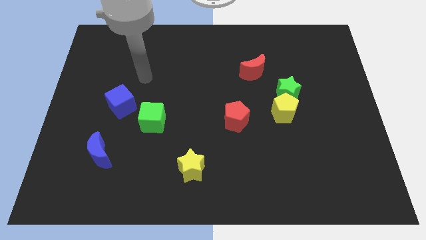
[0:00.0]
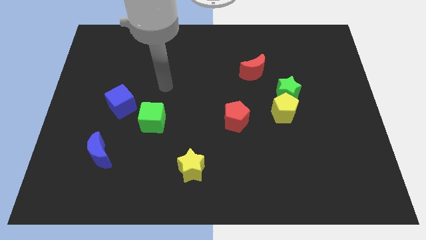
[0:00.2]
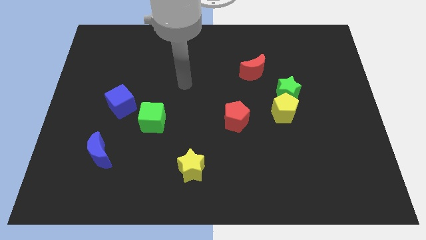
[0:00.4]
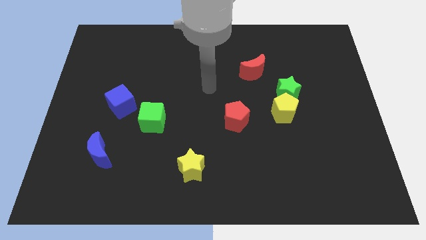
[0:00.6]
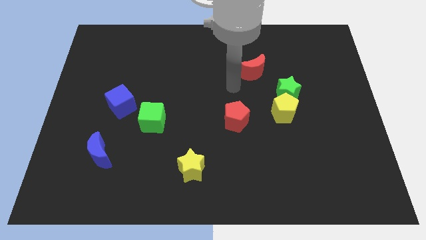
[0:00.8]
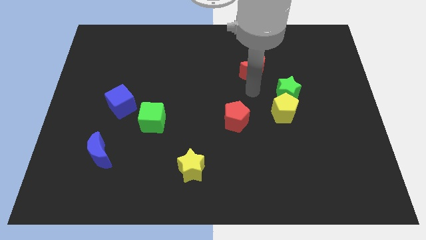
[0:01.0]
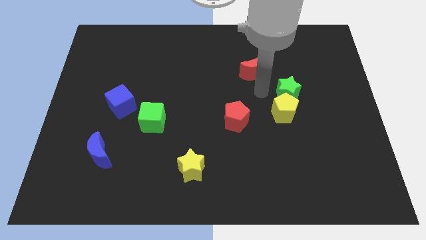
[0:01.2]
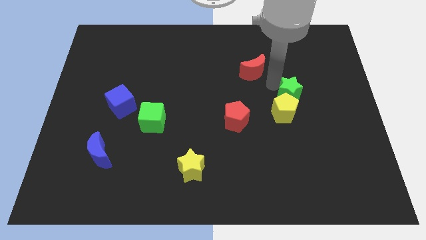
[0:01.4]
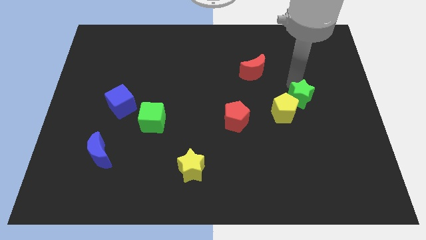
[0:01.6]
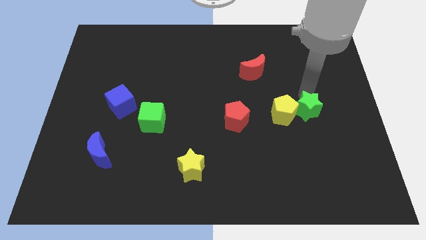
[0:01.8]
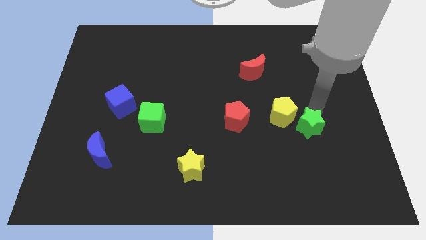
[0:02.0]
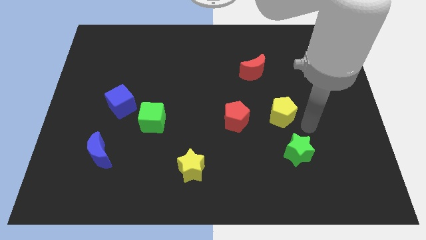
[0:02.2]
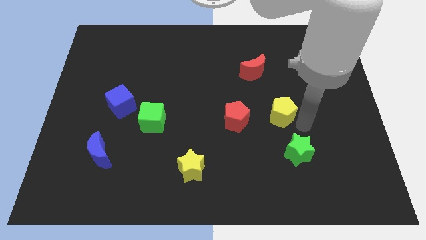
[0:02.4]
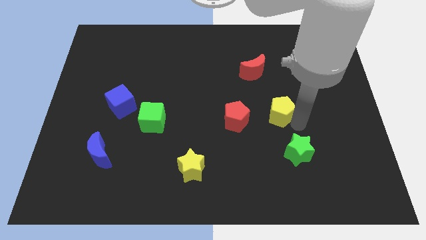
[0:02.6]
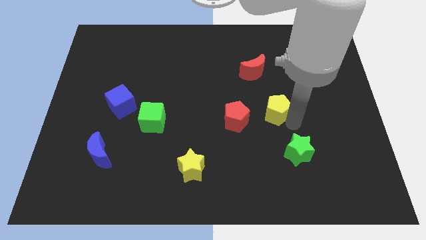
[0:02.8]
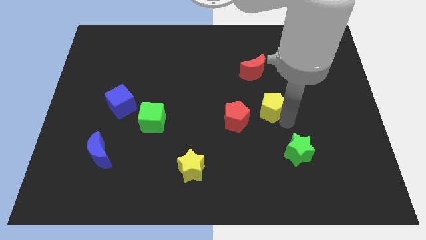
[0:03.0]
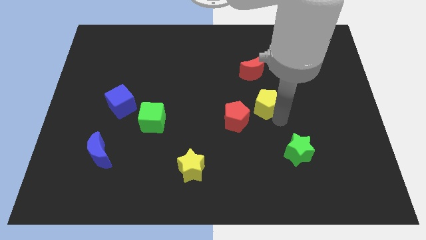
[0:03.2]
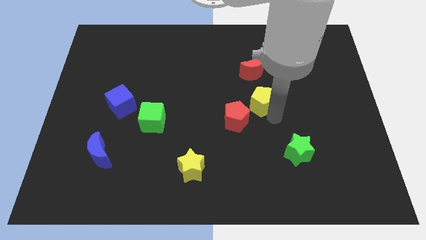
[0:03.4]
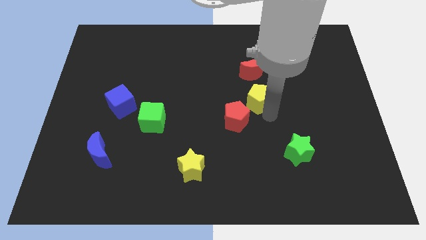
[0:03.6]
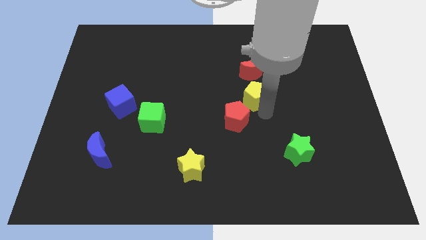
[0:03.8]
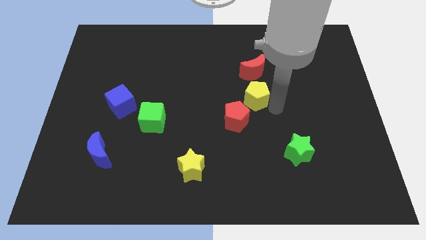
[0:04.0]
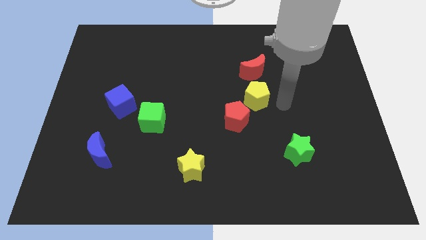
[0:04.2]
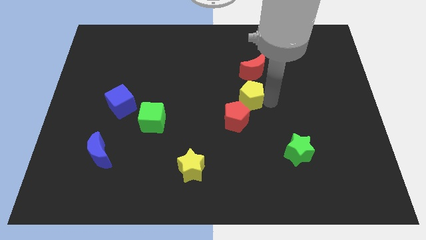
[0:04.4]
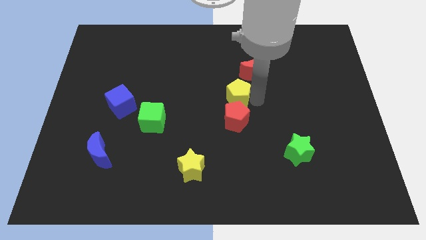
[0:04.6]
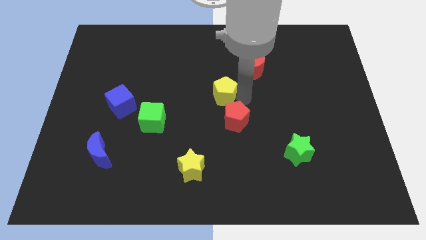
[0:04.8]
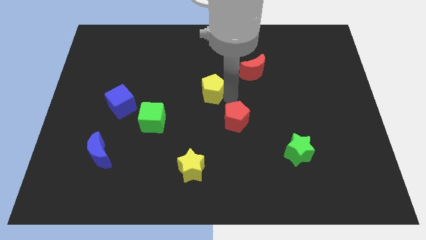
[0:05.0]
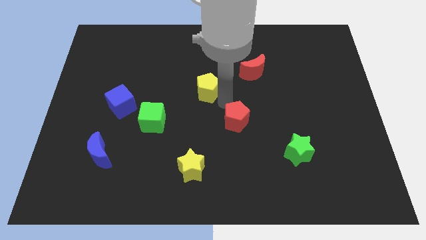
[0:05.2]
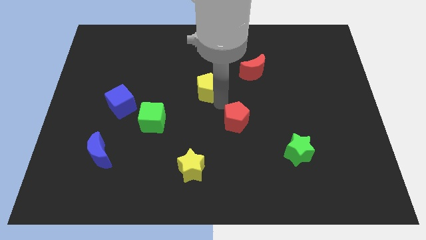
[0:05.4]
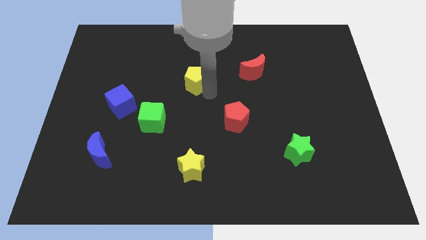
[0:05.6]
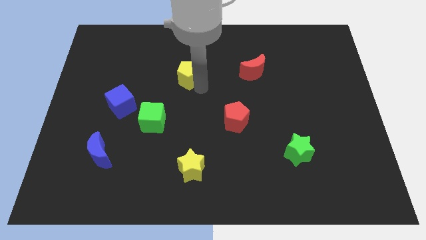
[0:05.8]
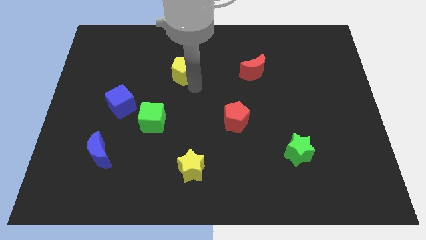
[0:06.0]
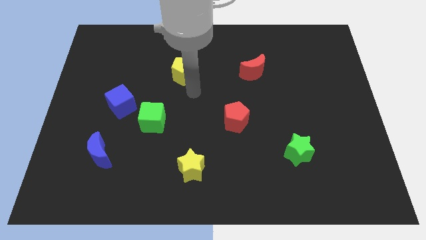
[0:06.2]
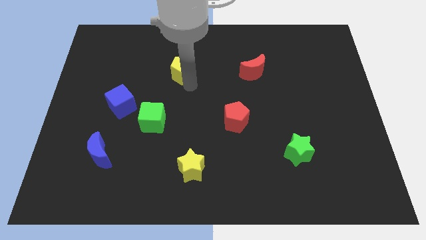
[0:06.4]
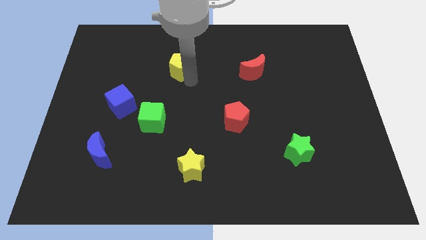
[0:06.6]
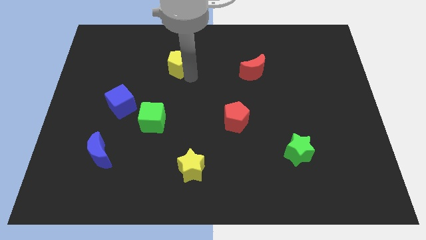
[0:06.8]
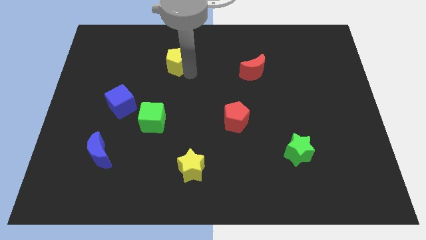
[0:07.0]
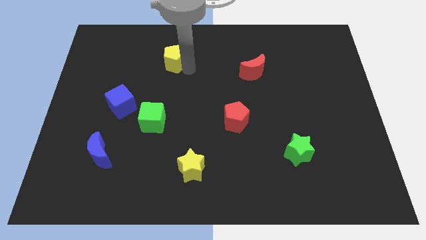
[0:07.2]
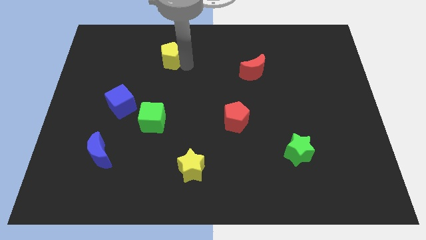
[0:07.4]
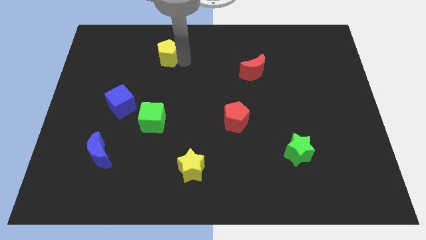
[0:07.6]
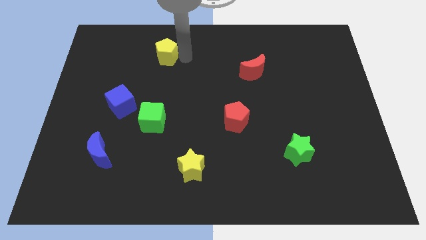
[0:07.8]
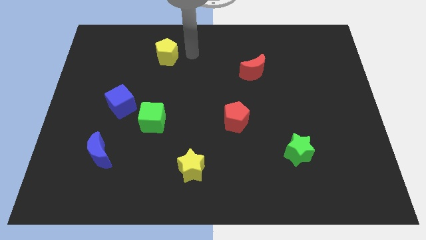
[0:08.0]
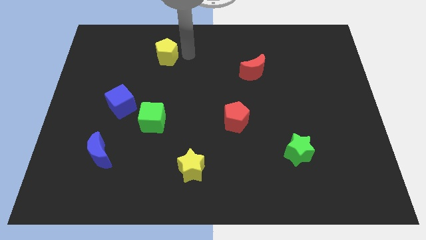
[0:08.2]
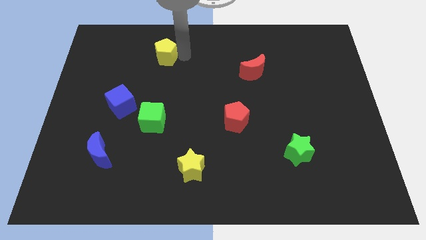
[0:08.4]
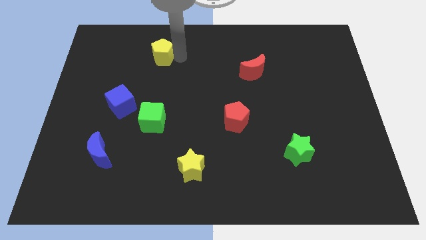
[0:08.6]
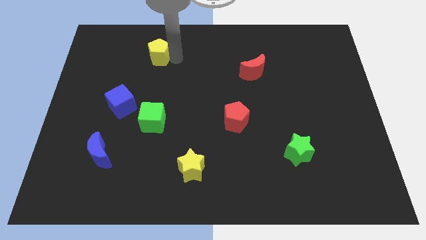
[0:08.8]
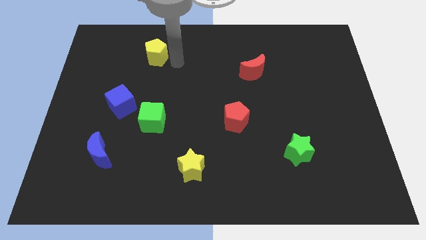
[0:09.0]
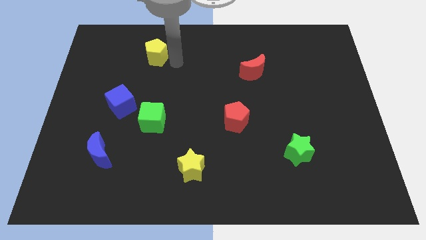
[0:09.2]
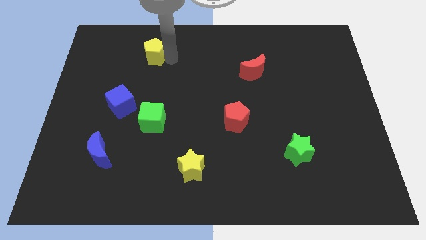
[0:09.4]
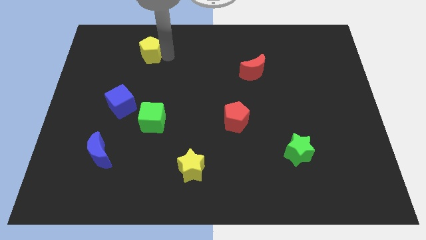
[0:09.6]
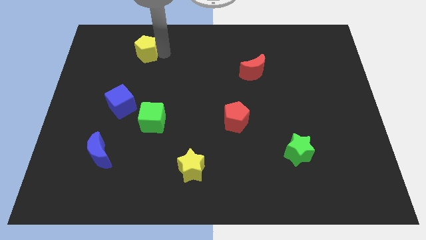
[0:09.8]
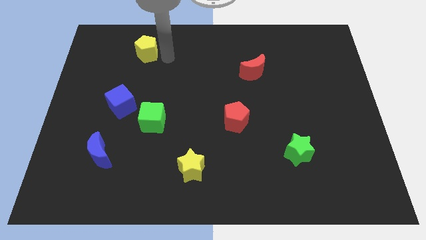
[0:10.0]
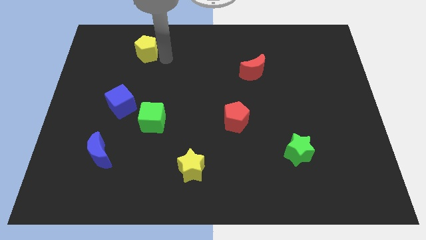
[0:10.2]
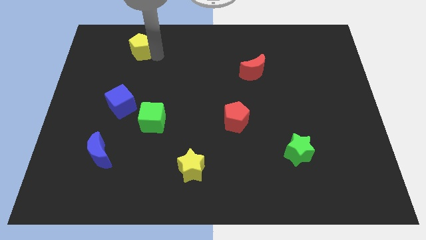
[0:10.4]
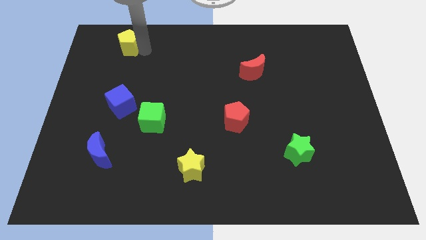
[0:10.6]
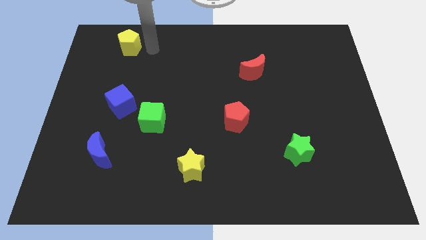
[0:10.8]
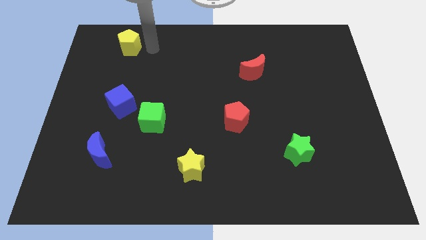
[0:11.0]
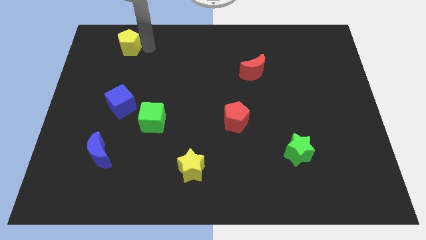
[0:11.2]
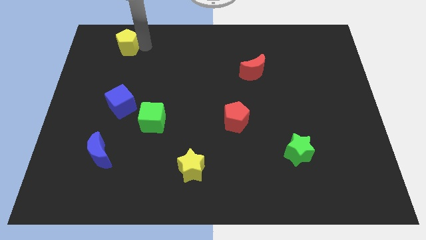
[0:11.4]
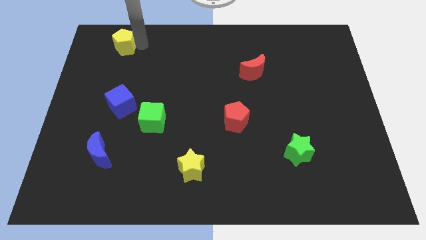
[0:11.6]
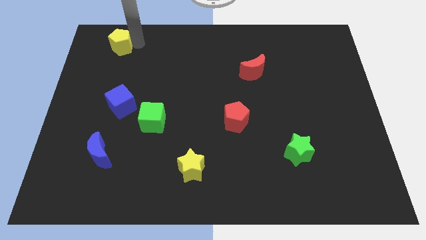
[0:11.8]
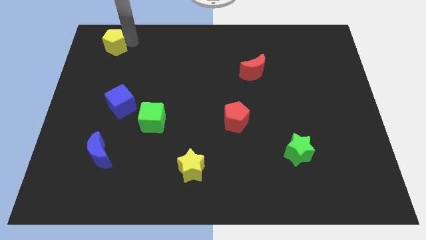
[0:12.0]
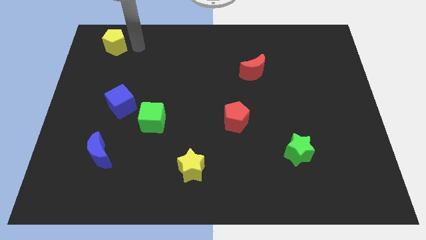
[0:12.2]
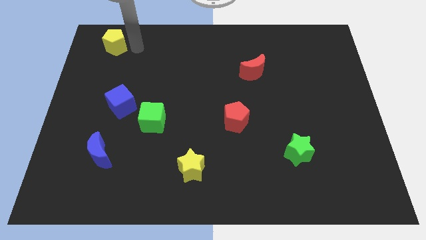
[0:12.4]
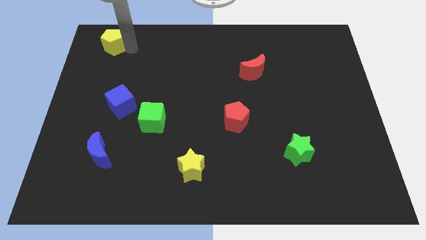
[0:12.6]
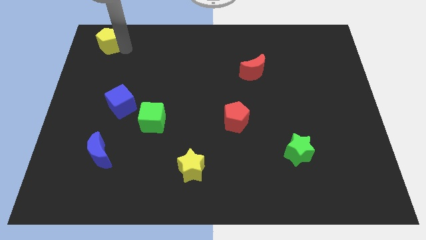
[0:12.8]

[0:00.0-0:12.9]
put the yellow pentagon to the top left corner

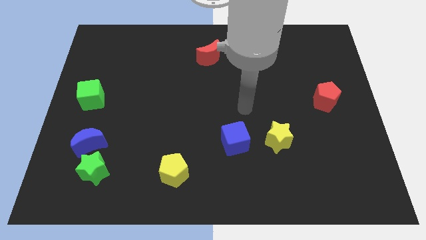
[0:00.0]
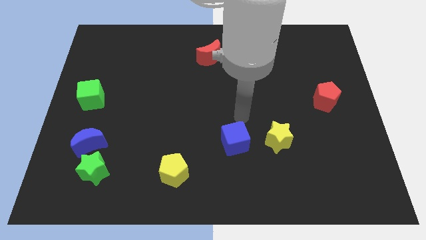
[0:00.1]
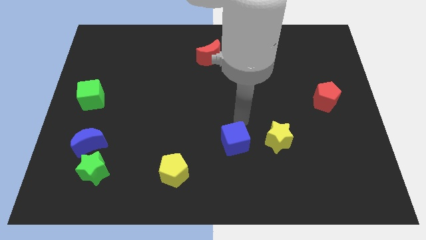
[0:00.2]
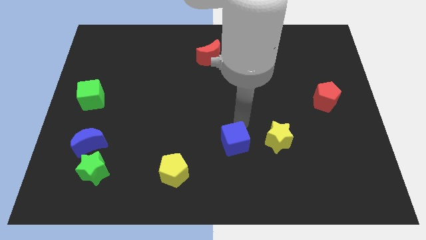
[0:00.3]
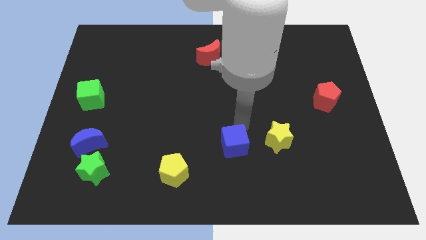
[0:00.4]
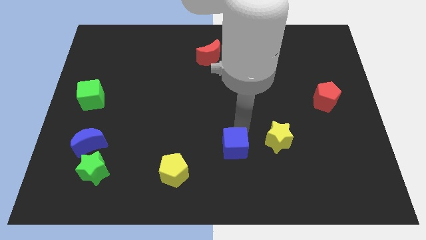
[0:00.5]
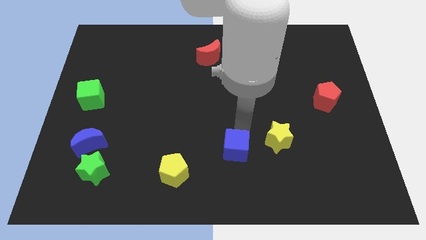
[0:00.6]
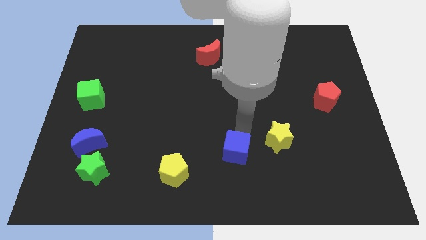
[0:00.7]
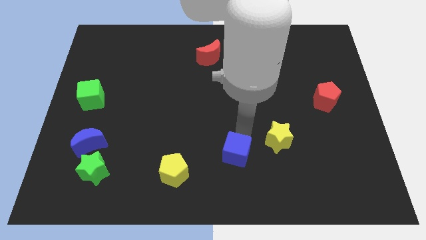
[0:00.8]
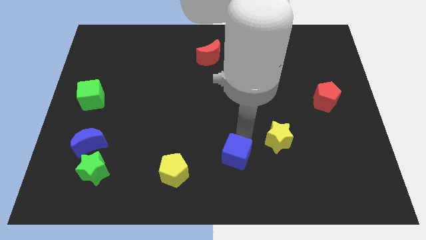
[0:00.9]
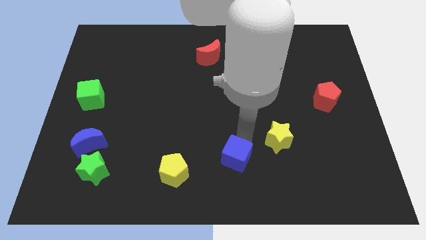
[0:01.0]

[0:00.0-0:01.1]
push the blue cube to the bottom
